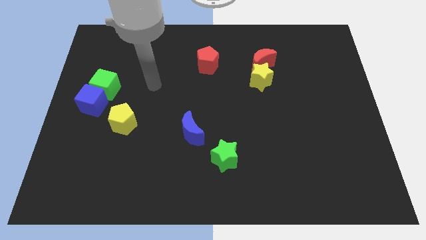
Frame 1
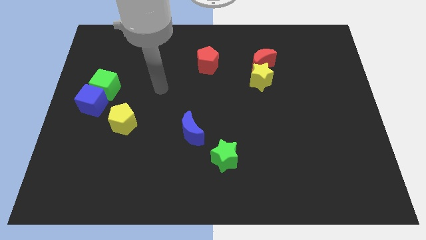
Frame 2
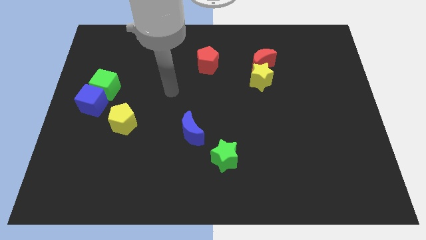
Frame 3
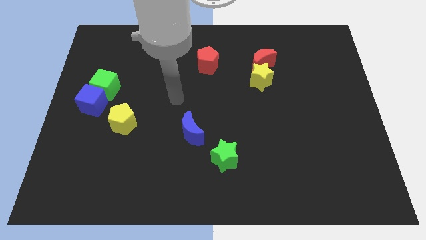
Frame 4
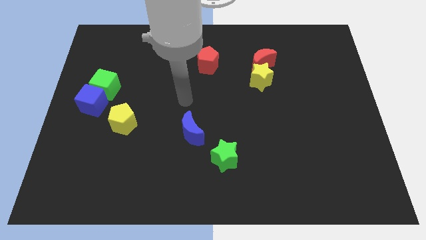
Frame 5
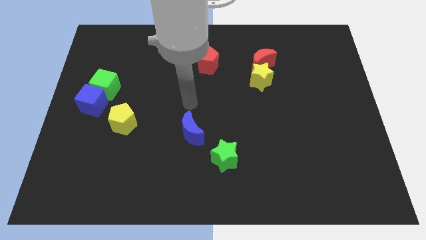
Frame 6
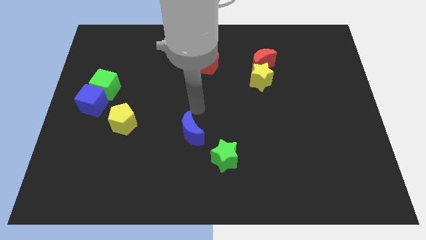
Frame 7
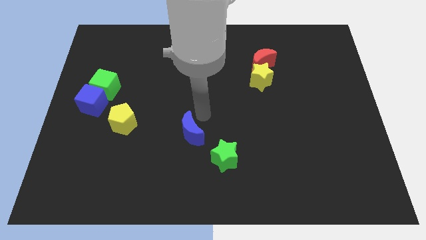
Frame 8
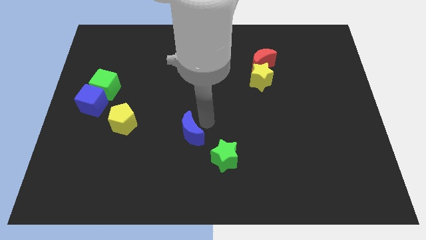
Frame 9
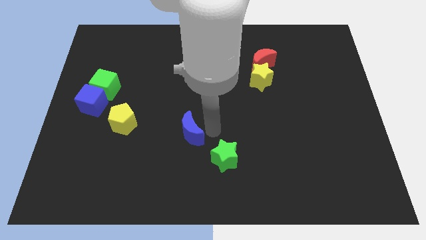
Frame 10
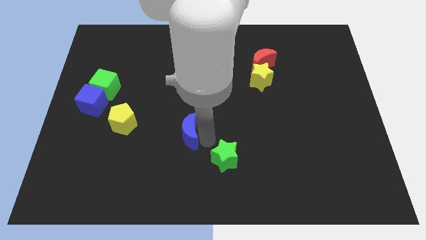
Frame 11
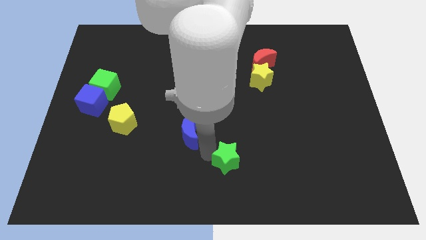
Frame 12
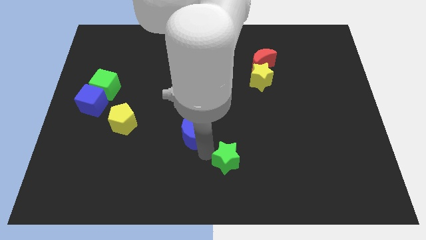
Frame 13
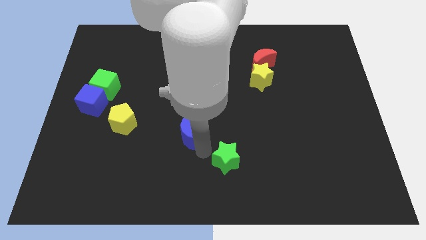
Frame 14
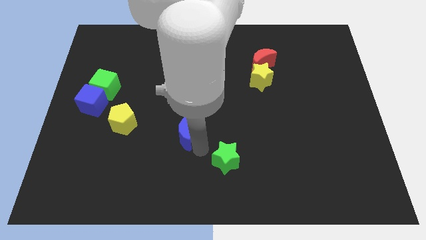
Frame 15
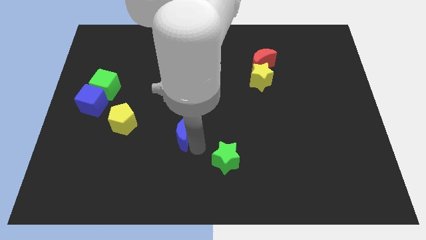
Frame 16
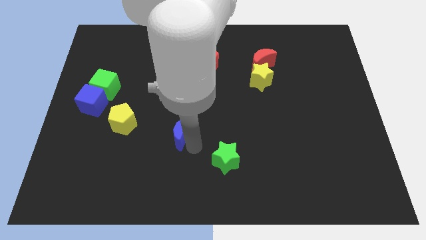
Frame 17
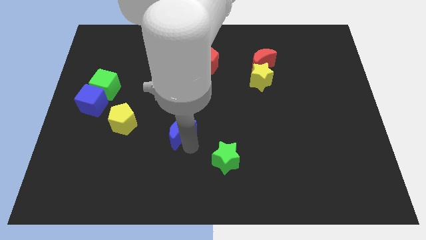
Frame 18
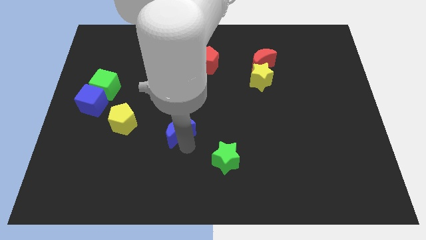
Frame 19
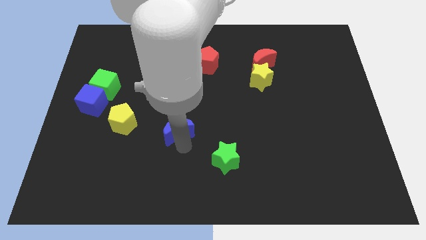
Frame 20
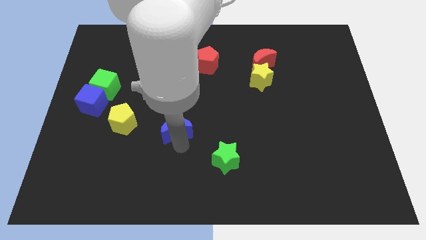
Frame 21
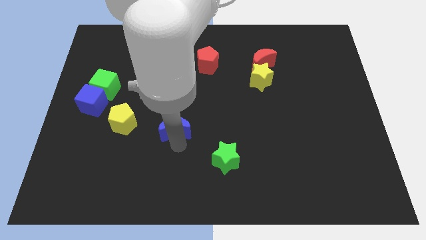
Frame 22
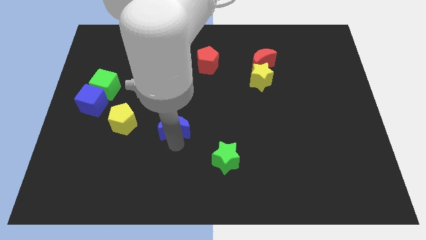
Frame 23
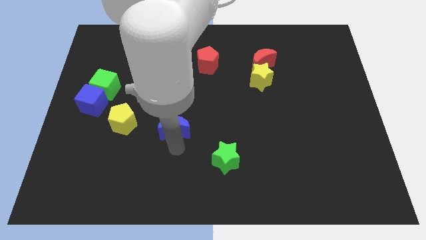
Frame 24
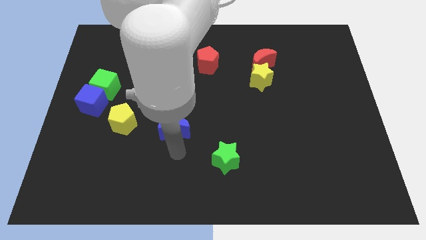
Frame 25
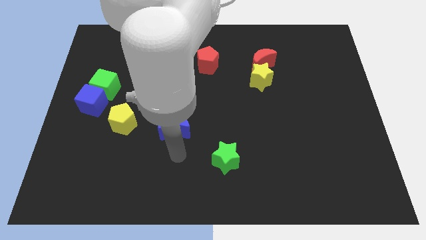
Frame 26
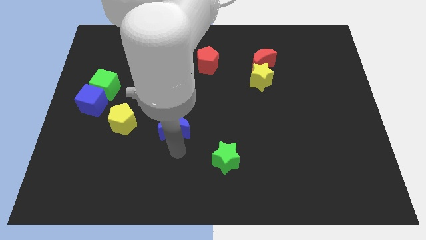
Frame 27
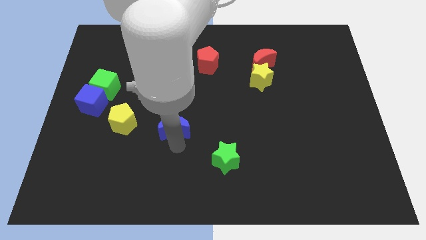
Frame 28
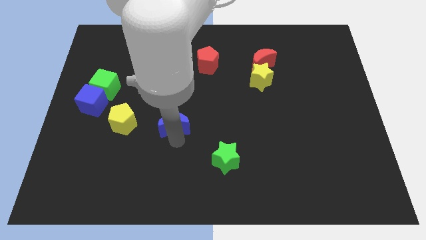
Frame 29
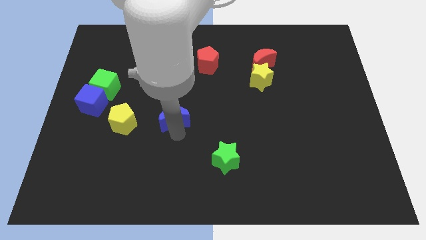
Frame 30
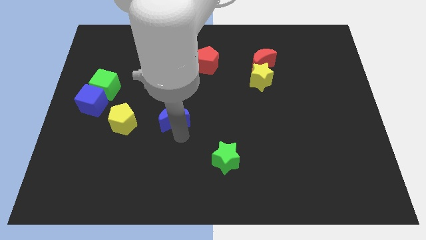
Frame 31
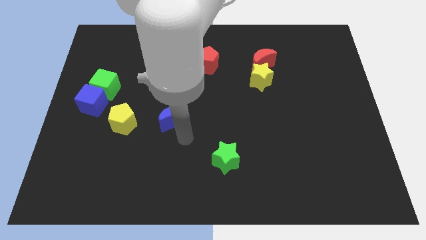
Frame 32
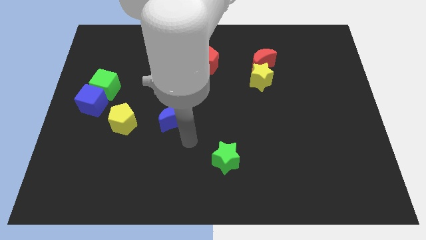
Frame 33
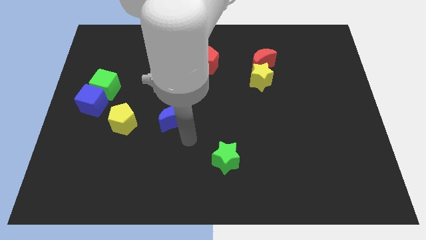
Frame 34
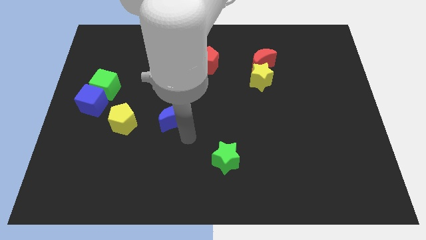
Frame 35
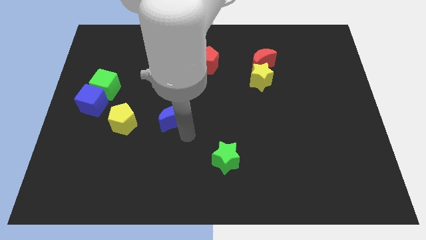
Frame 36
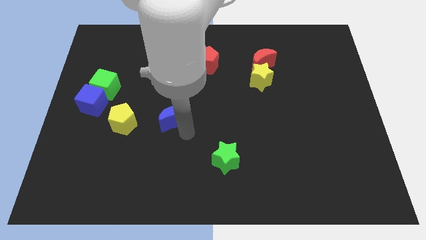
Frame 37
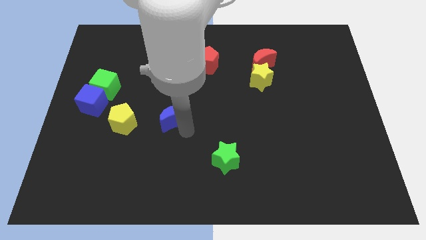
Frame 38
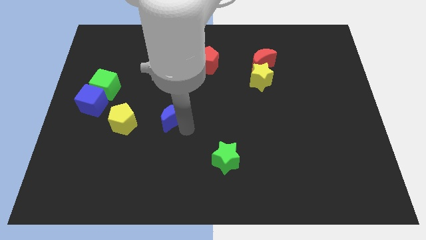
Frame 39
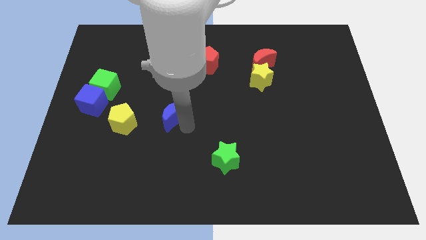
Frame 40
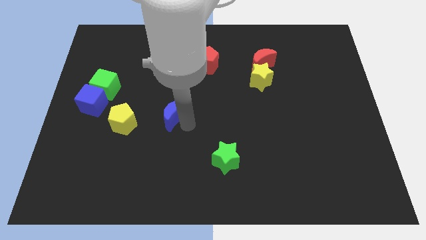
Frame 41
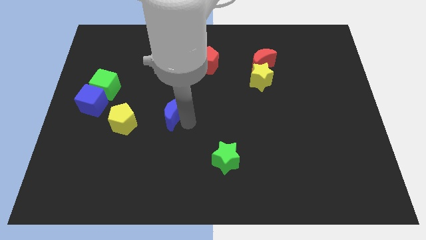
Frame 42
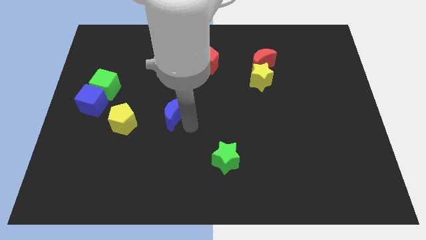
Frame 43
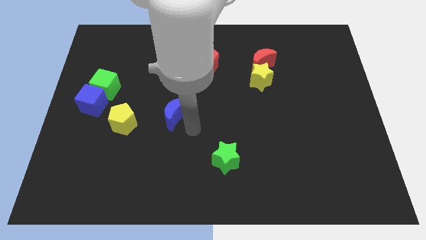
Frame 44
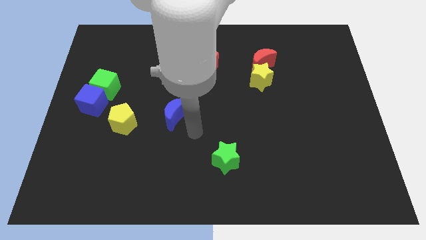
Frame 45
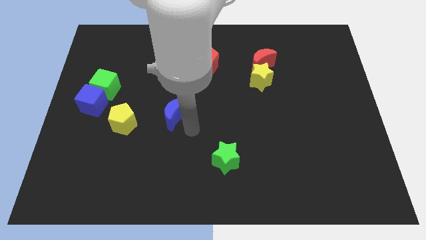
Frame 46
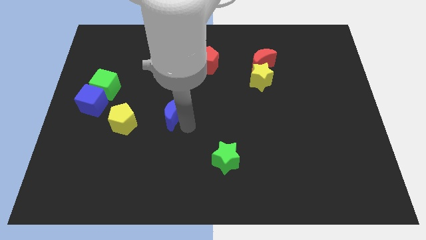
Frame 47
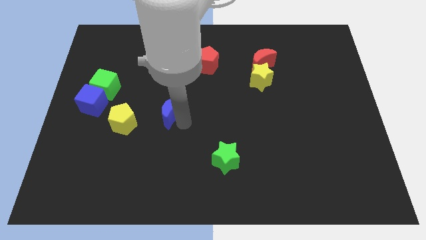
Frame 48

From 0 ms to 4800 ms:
slide the blue moon upwards and then left a little bit

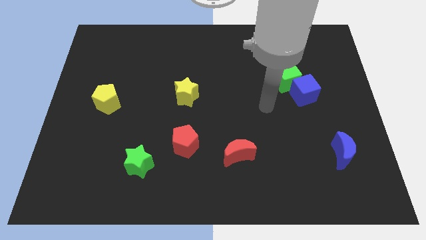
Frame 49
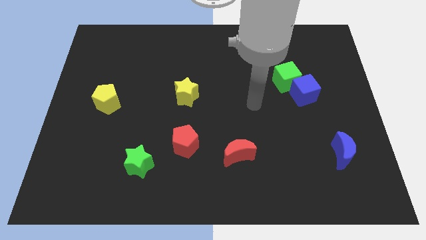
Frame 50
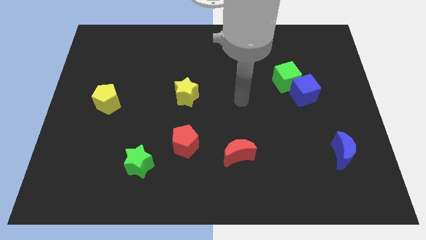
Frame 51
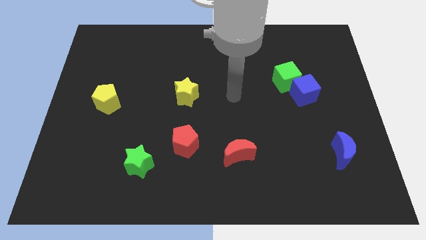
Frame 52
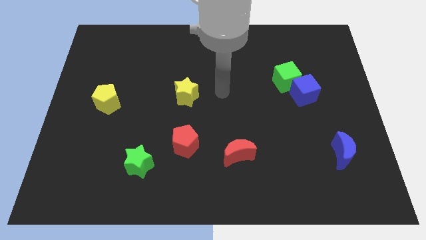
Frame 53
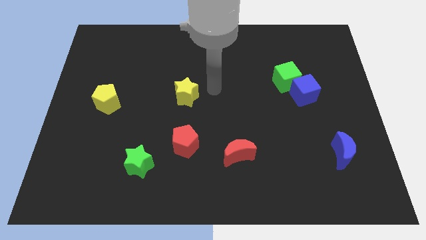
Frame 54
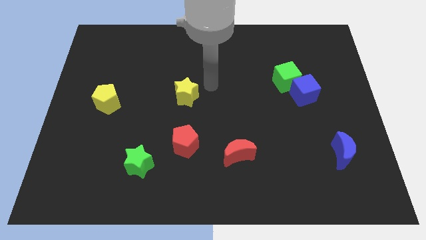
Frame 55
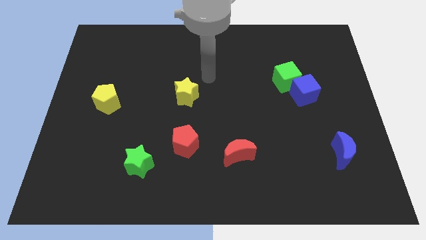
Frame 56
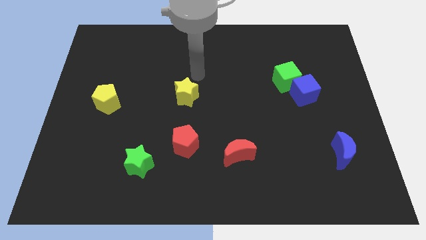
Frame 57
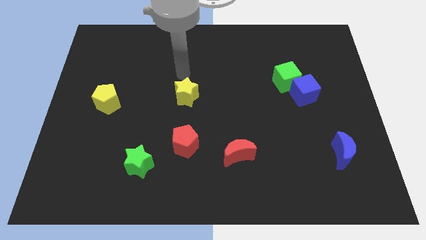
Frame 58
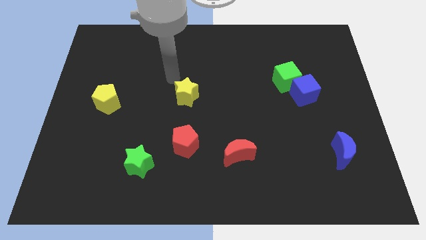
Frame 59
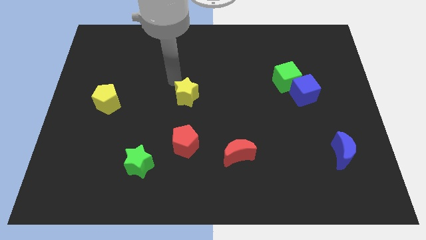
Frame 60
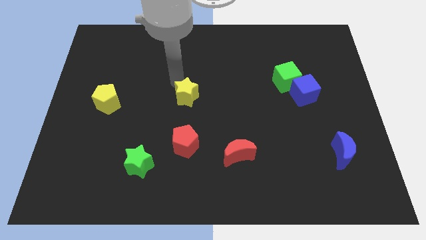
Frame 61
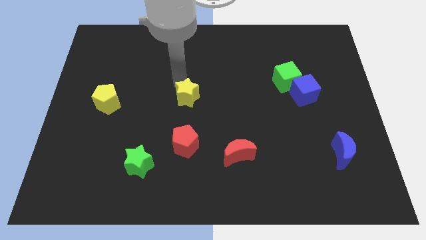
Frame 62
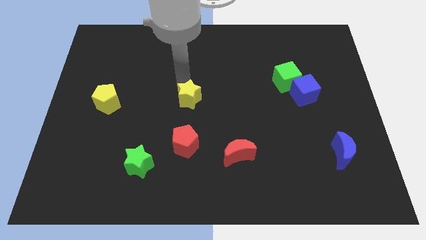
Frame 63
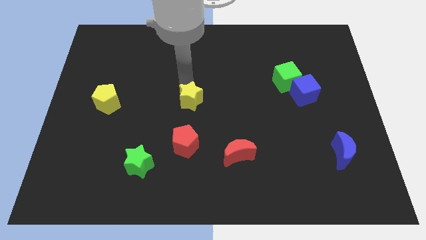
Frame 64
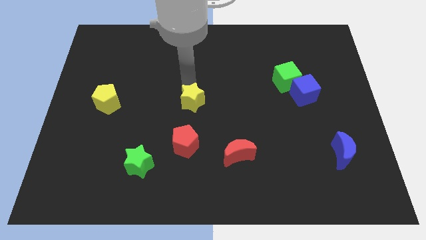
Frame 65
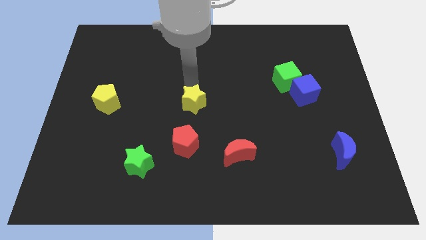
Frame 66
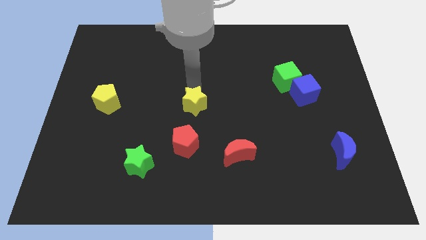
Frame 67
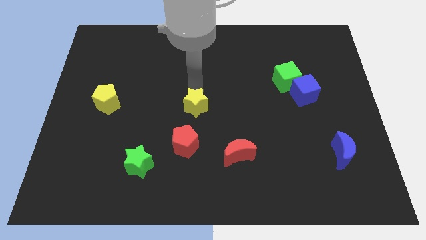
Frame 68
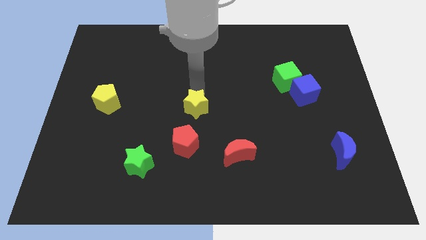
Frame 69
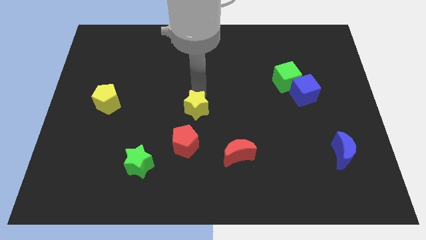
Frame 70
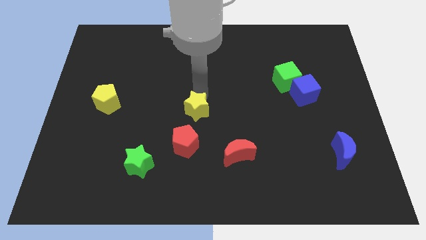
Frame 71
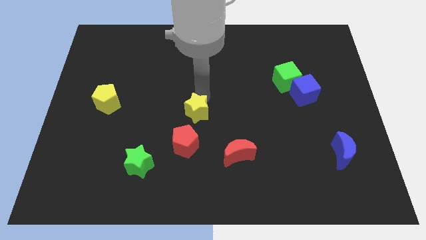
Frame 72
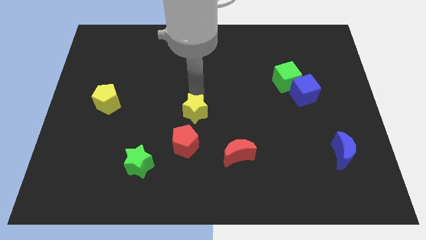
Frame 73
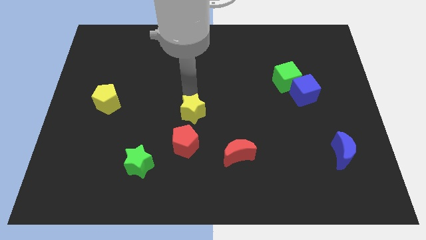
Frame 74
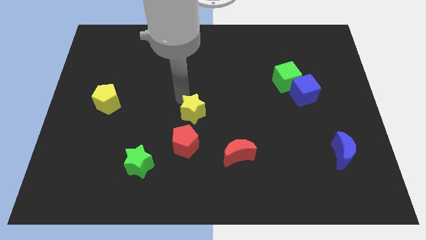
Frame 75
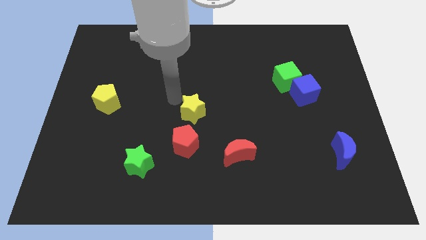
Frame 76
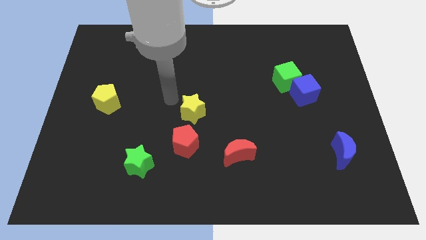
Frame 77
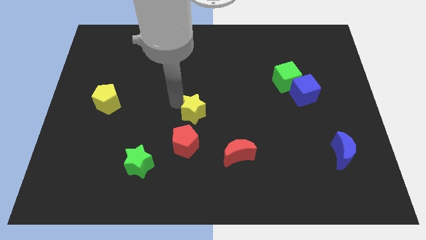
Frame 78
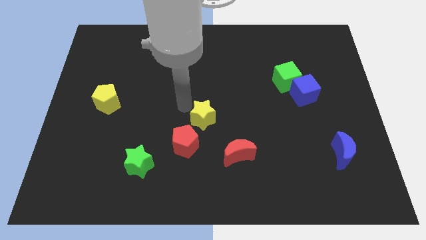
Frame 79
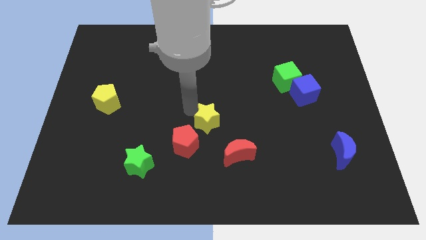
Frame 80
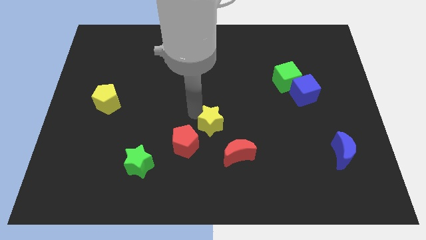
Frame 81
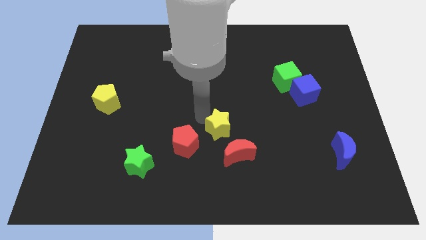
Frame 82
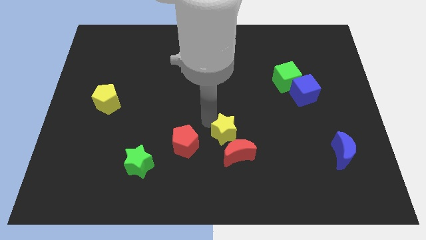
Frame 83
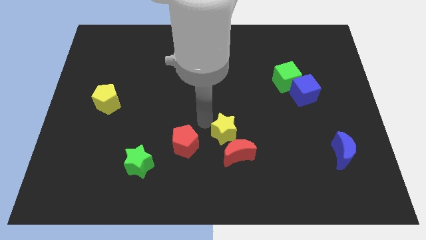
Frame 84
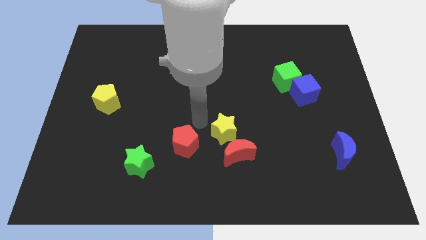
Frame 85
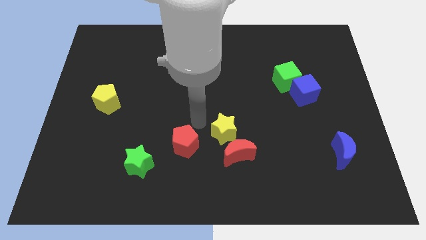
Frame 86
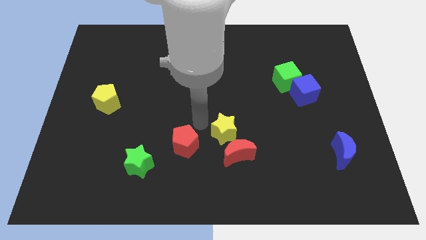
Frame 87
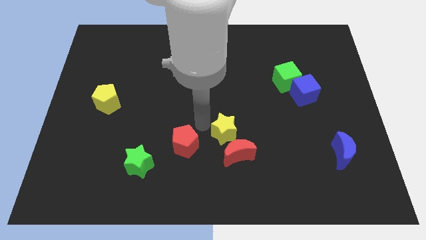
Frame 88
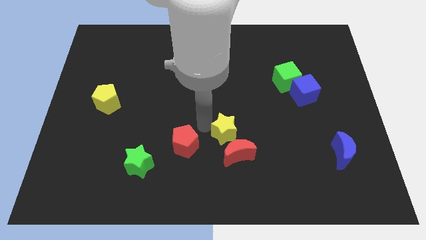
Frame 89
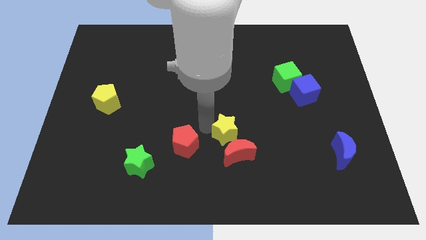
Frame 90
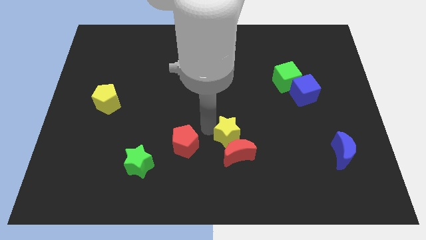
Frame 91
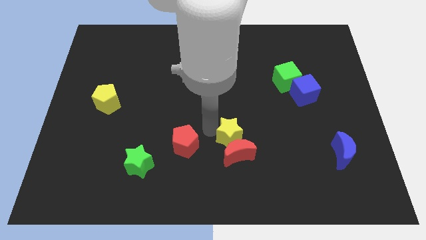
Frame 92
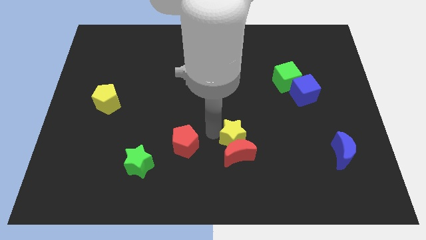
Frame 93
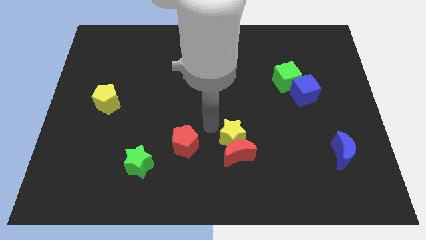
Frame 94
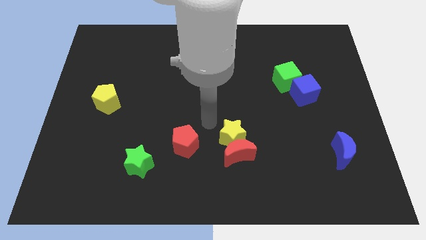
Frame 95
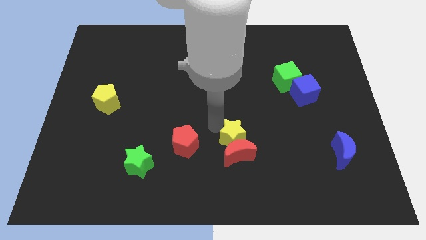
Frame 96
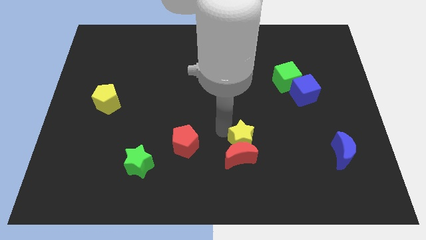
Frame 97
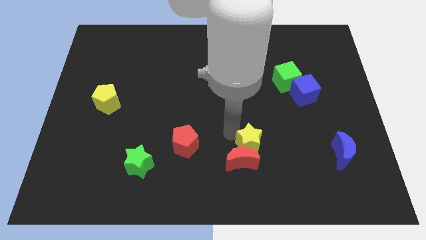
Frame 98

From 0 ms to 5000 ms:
push the yellow star downwards and to the right
